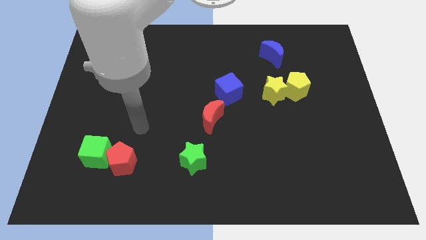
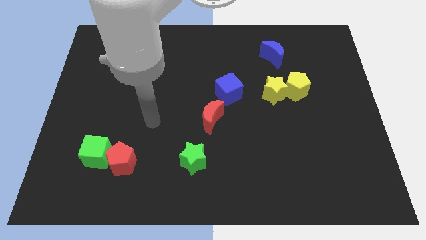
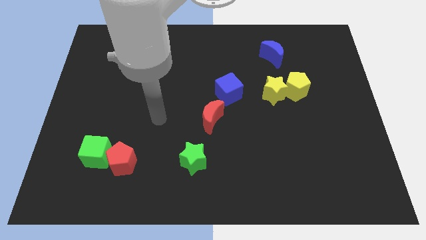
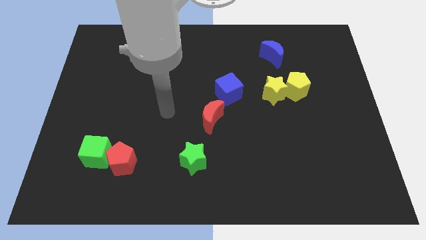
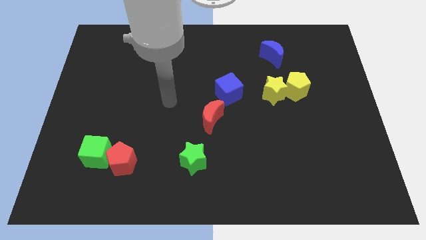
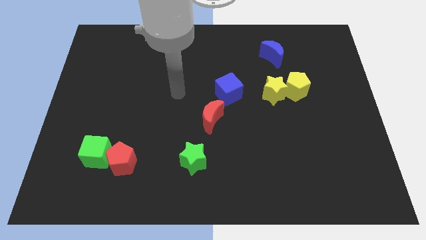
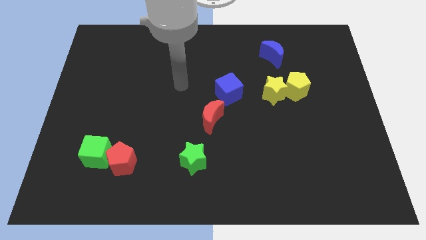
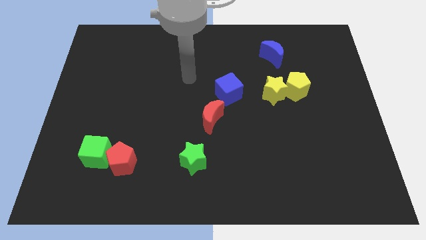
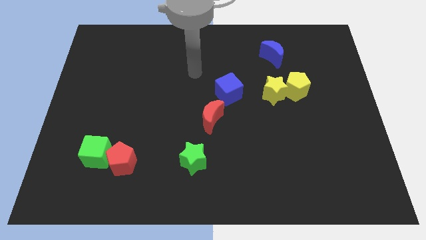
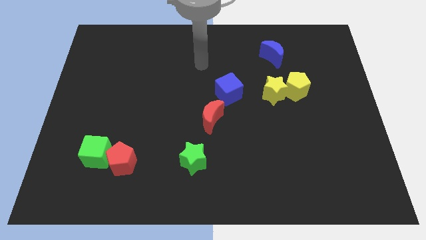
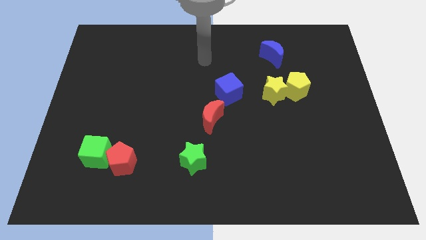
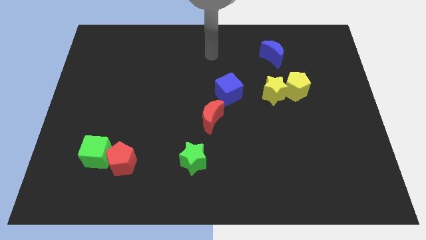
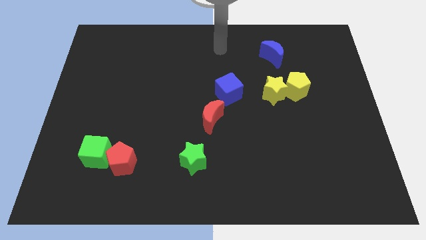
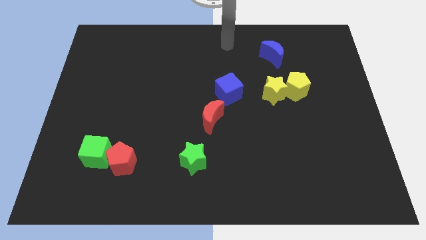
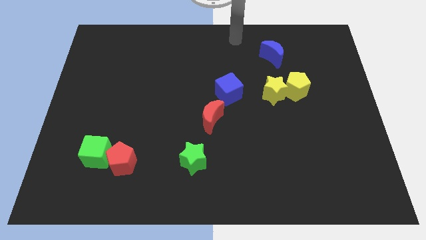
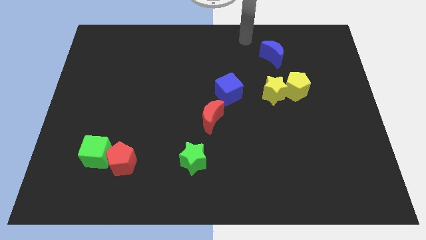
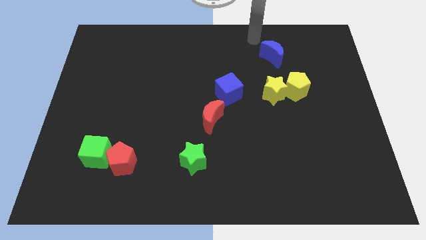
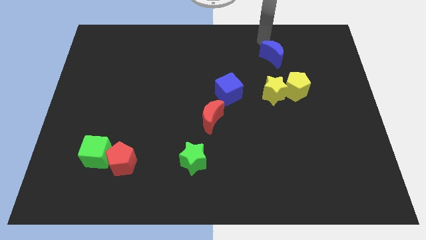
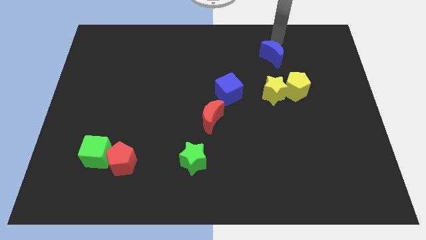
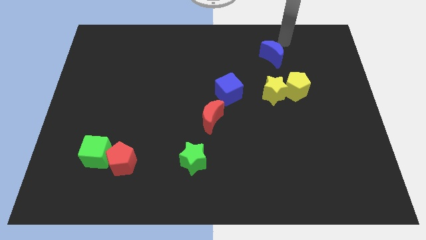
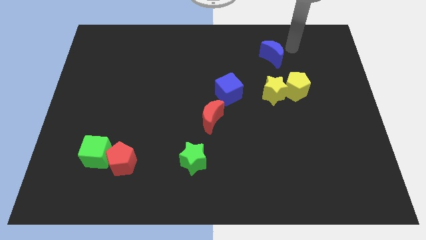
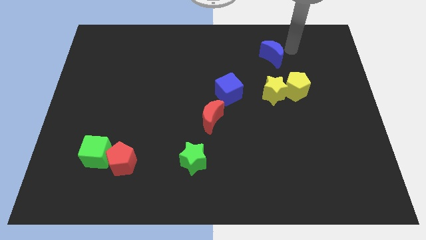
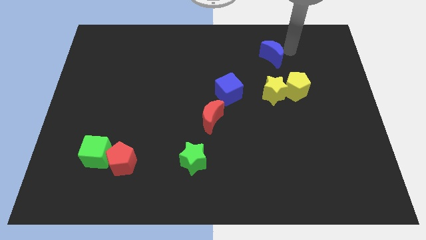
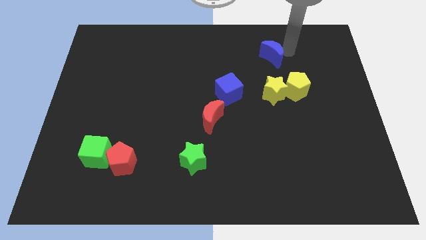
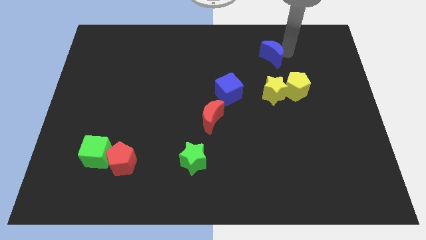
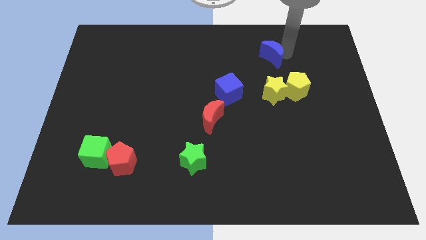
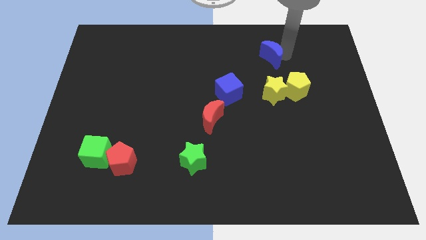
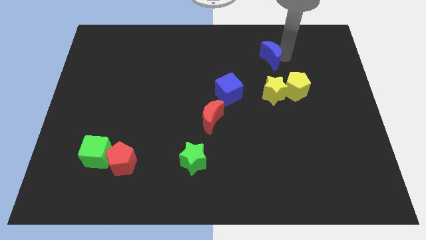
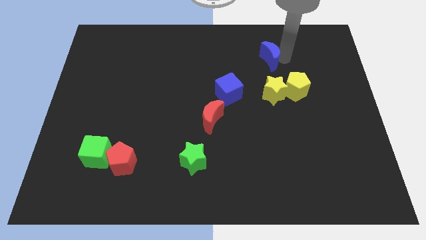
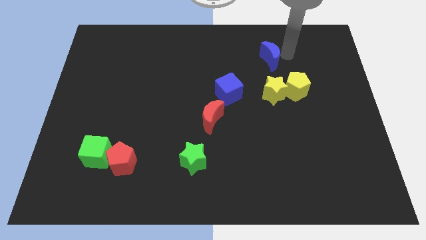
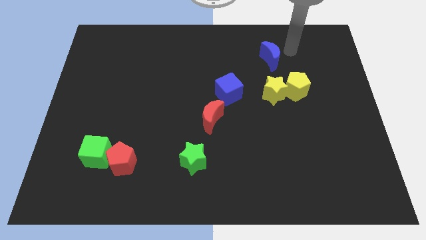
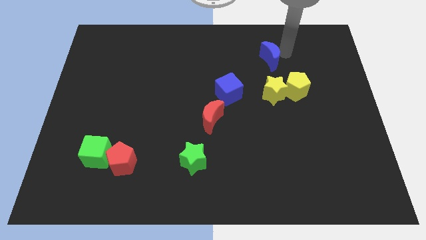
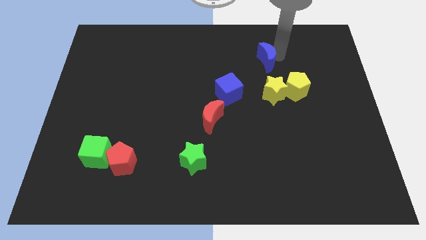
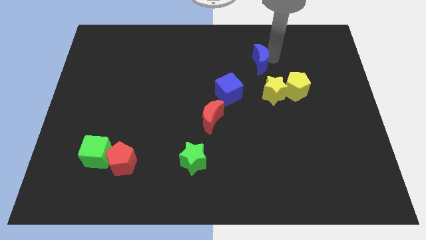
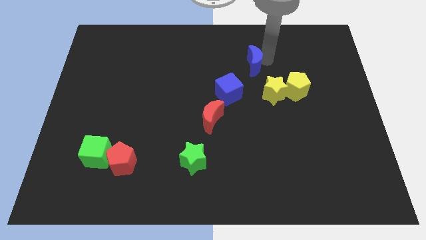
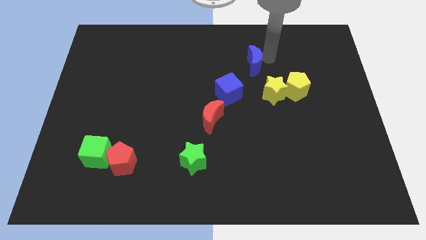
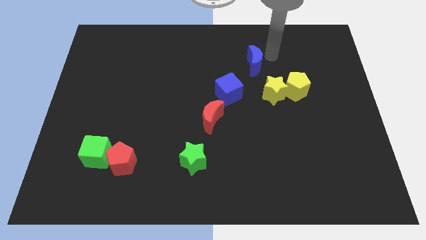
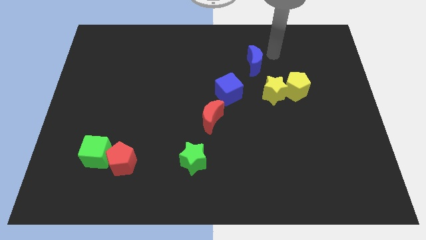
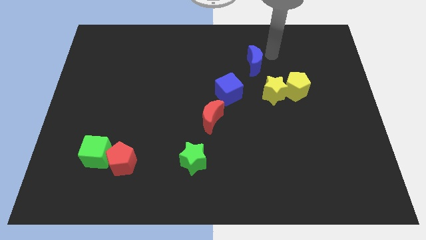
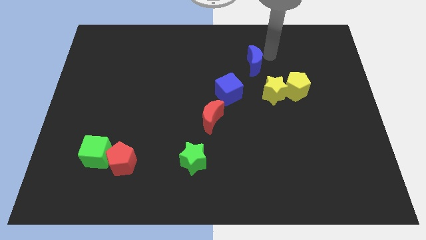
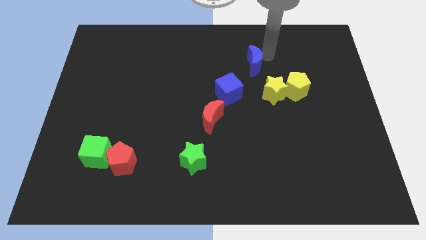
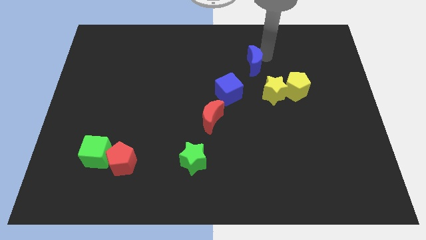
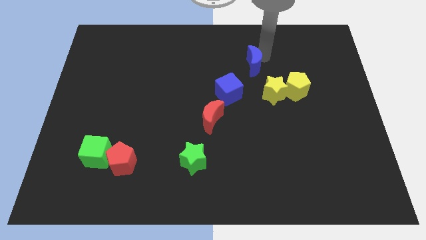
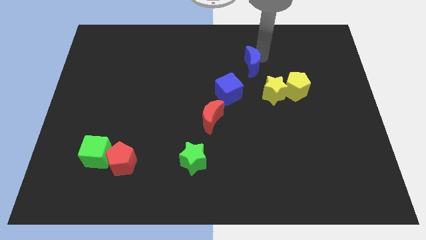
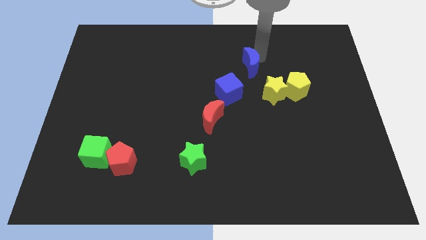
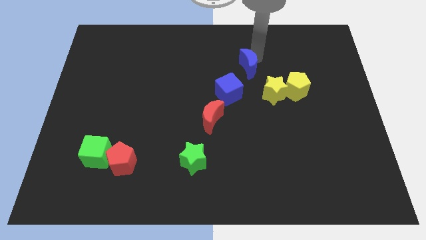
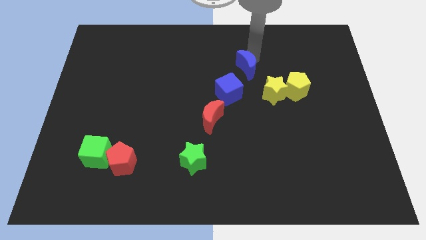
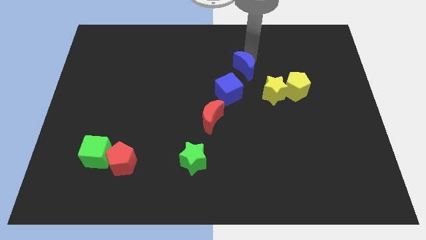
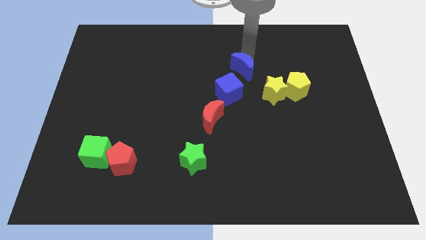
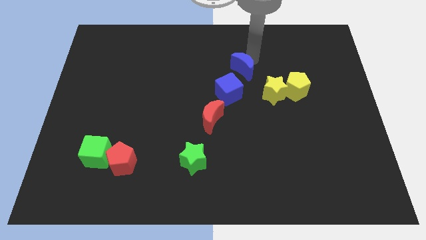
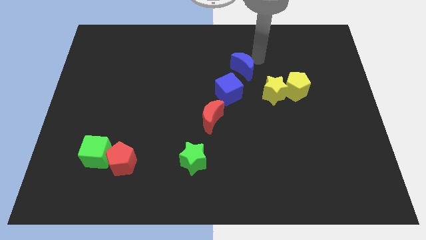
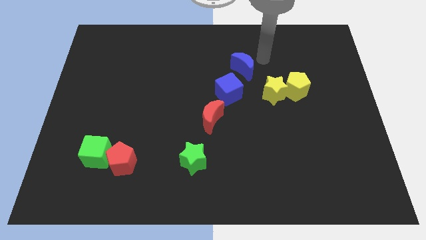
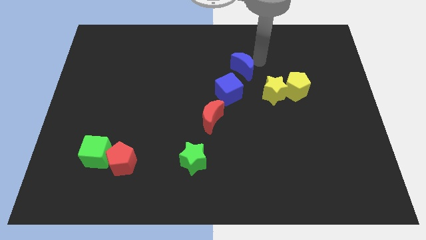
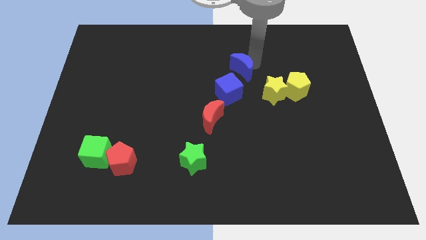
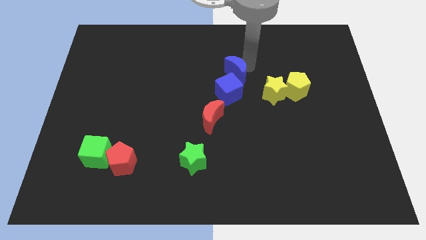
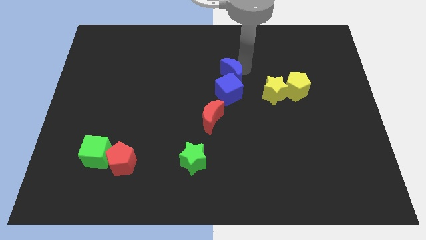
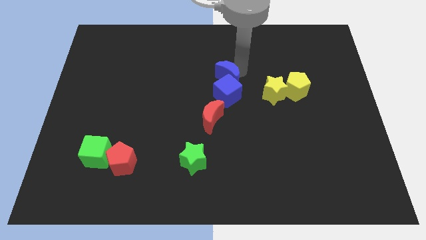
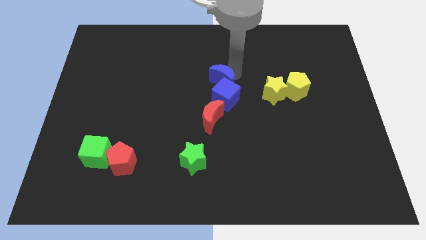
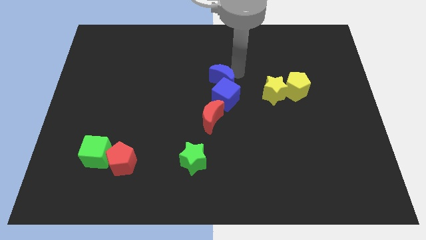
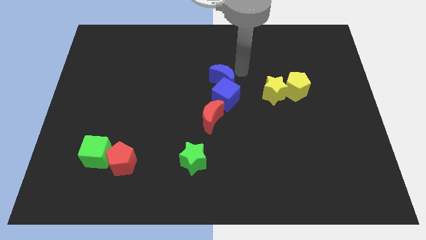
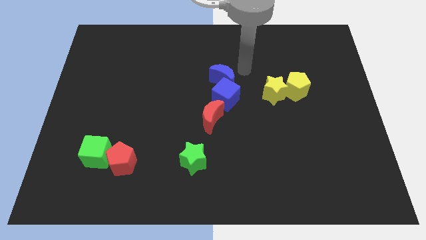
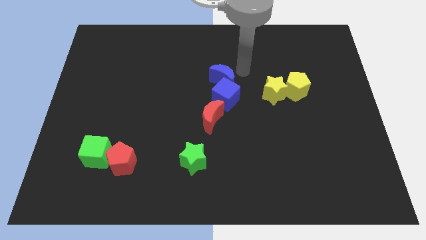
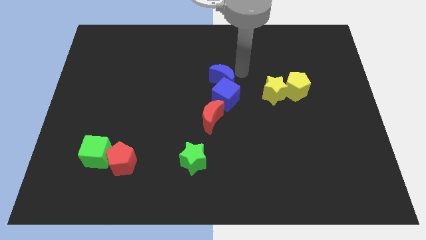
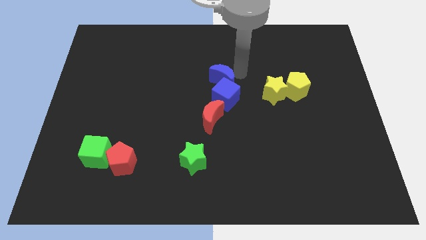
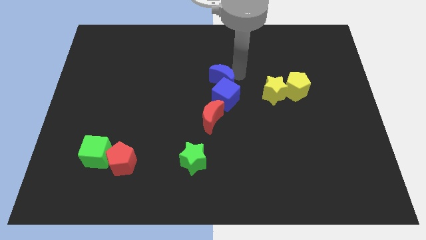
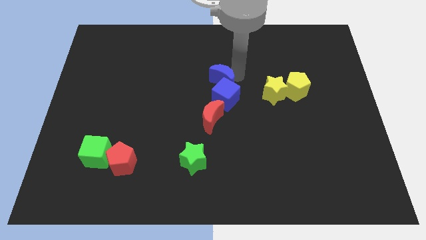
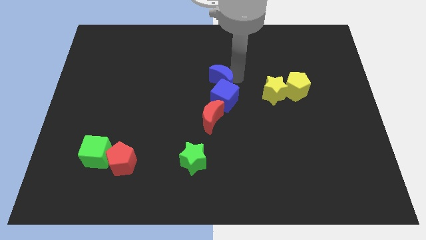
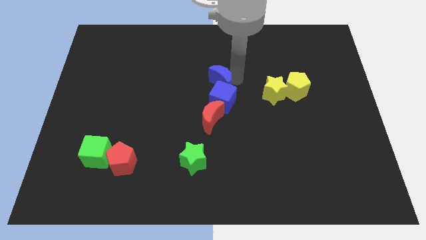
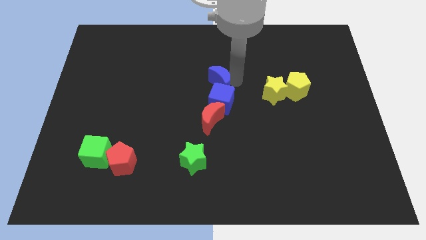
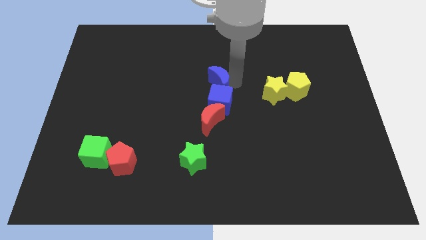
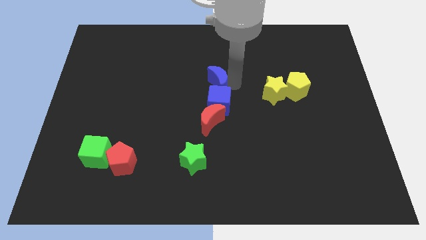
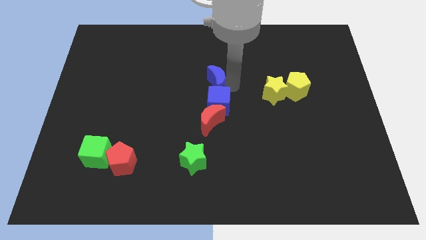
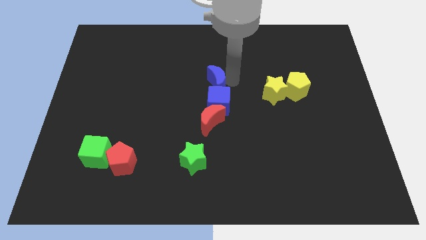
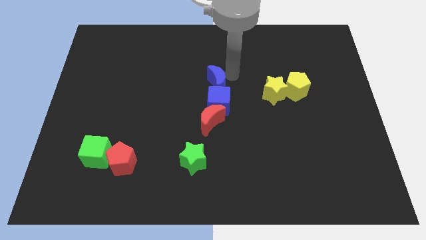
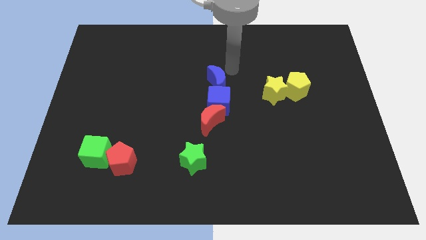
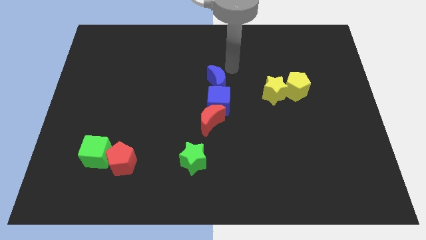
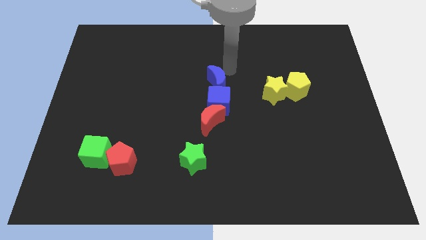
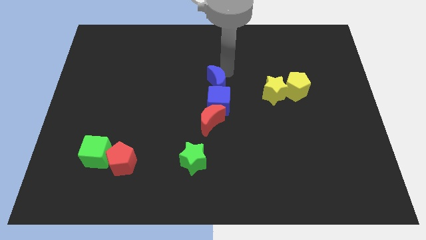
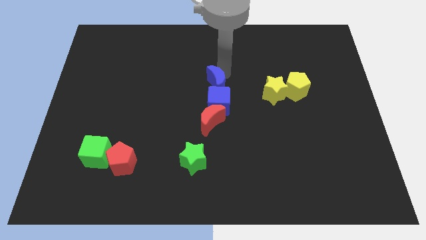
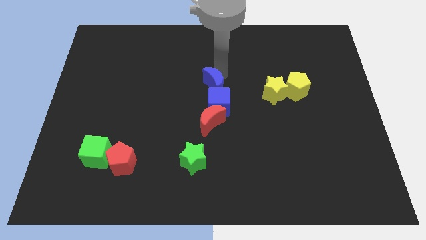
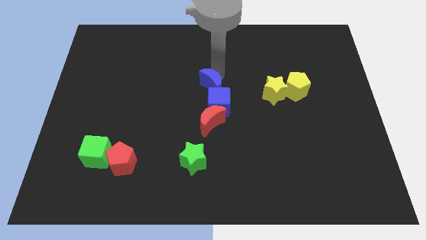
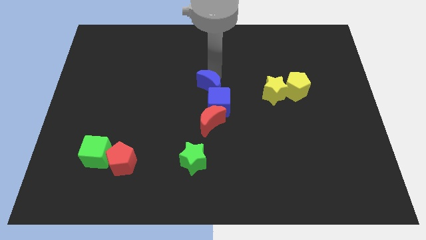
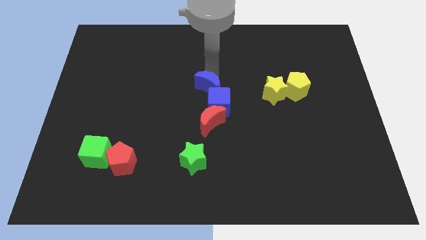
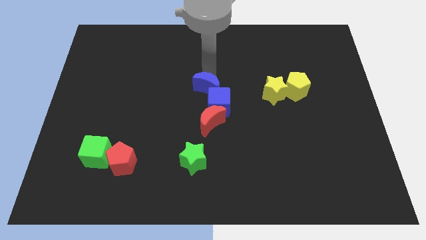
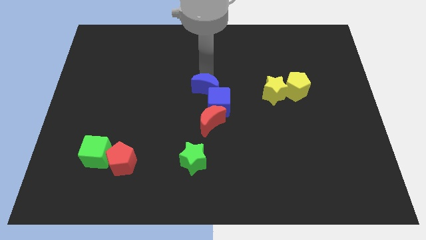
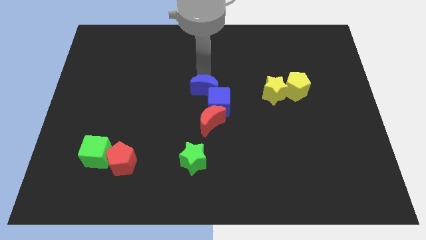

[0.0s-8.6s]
move the blue moon diagonally down and left
